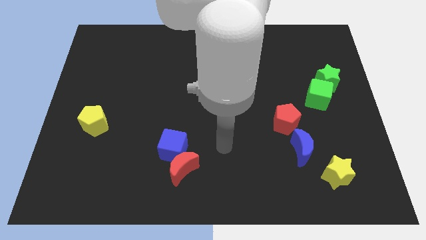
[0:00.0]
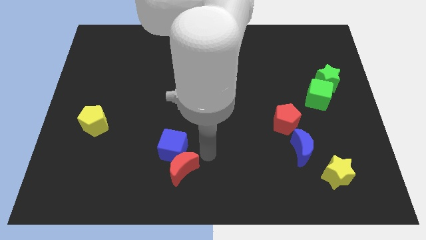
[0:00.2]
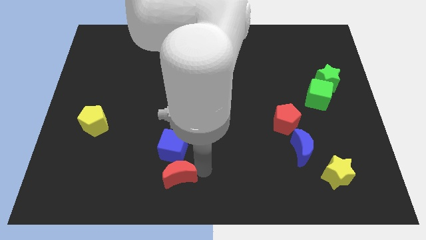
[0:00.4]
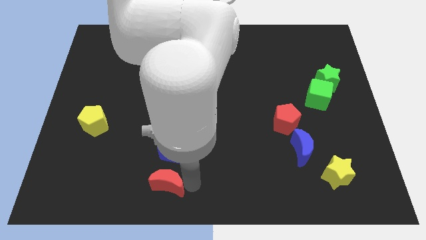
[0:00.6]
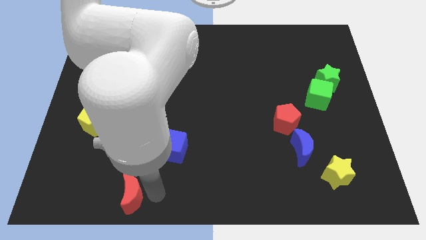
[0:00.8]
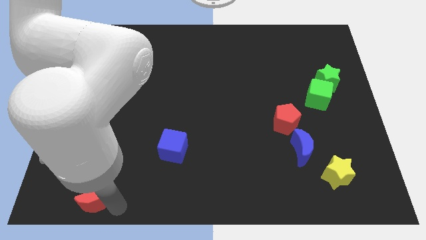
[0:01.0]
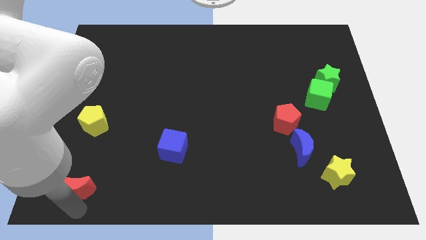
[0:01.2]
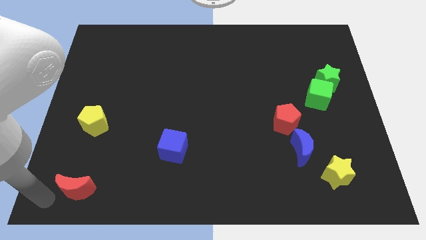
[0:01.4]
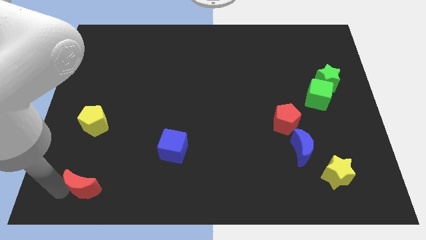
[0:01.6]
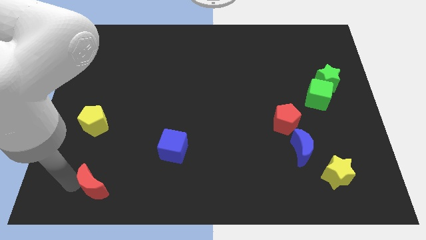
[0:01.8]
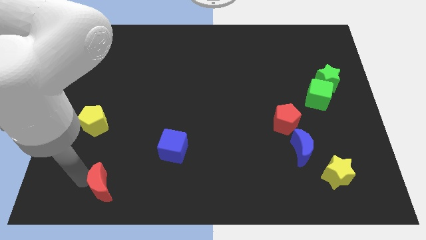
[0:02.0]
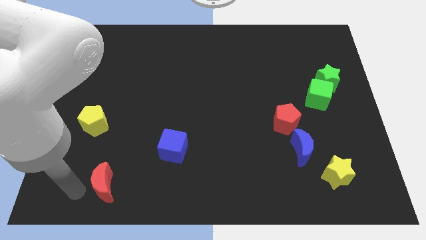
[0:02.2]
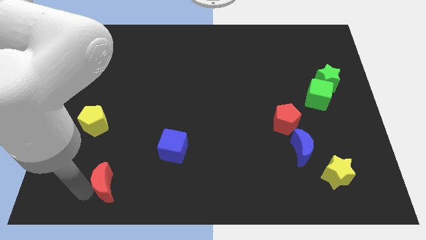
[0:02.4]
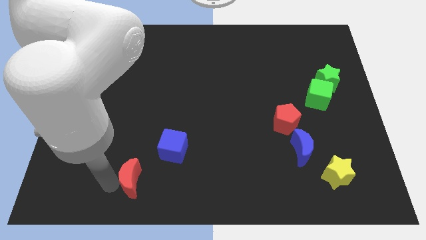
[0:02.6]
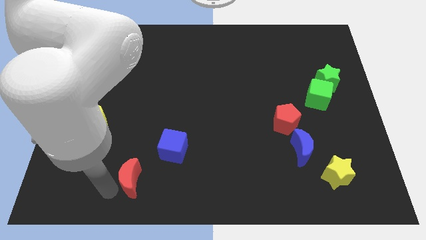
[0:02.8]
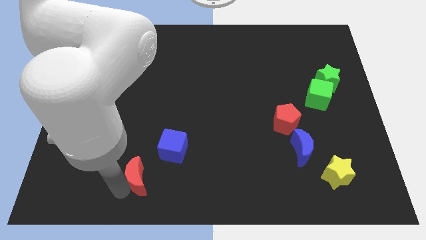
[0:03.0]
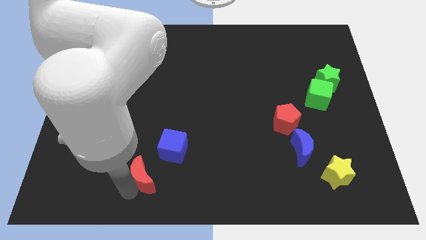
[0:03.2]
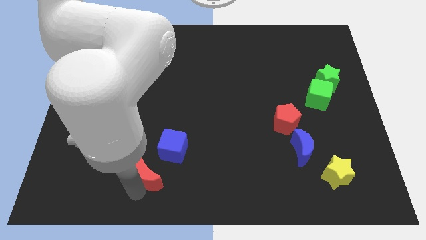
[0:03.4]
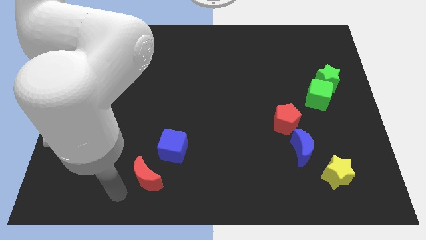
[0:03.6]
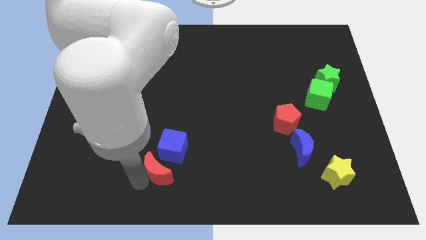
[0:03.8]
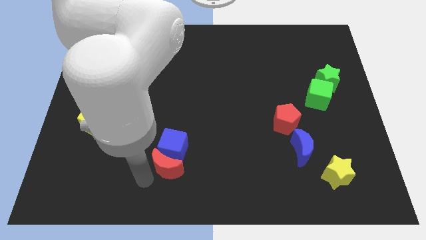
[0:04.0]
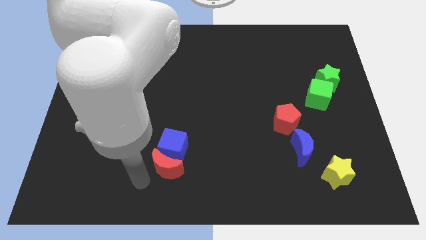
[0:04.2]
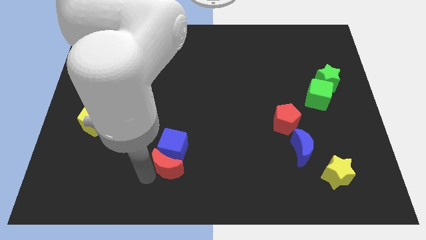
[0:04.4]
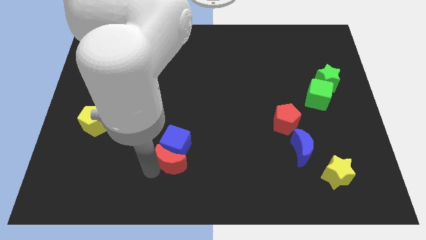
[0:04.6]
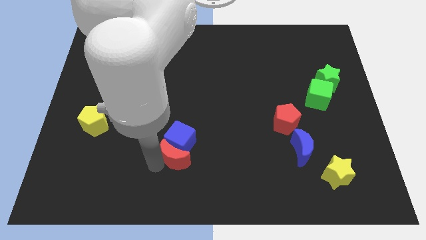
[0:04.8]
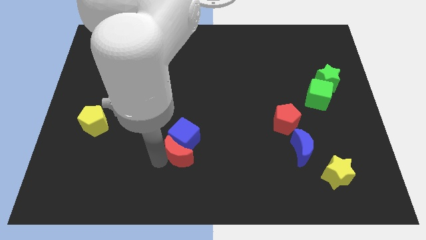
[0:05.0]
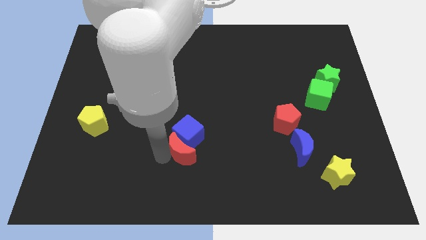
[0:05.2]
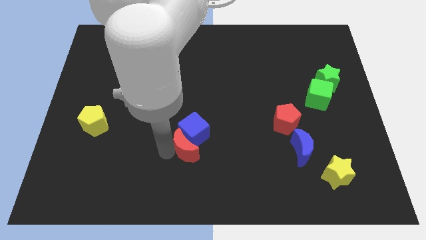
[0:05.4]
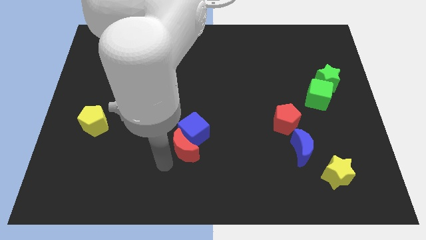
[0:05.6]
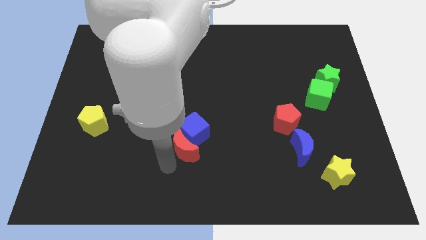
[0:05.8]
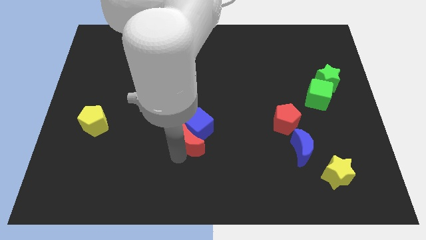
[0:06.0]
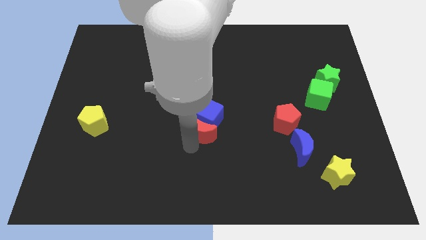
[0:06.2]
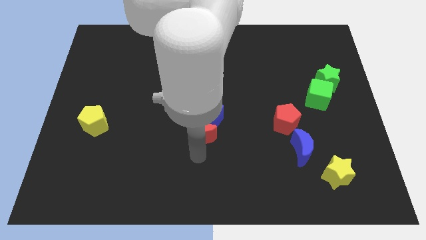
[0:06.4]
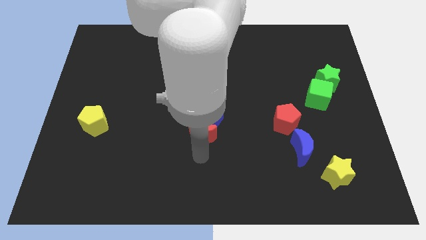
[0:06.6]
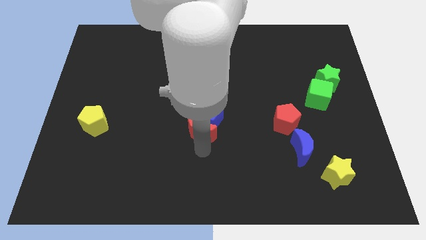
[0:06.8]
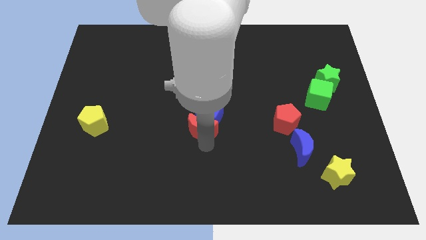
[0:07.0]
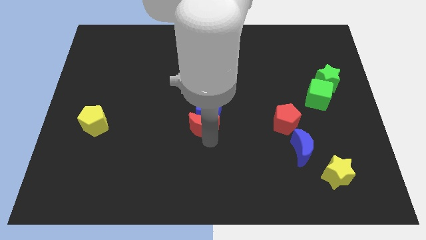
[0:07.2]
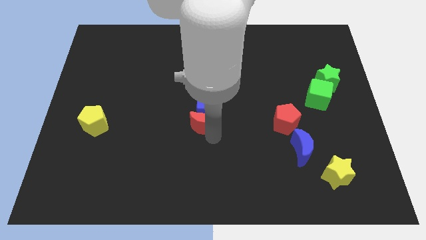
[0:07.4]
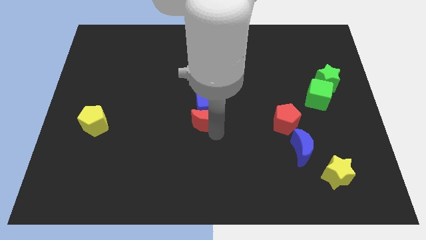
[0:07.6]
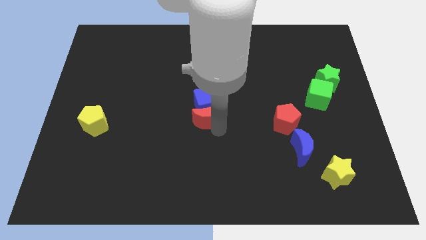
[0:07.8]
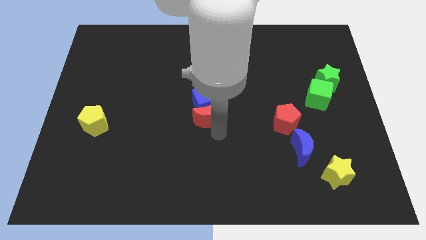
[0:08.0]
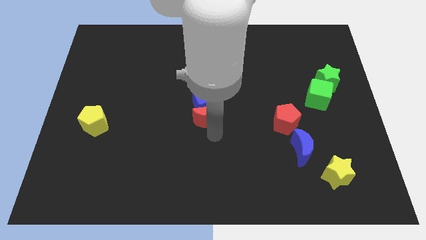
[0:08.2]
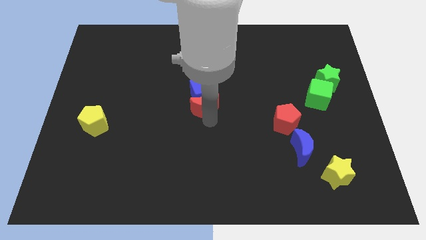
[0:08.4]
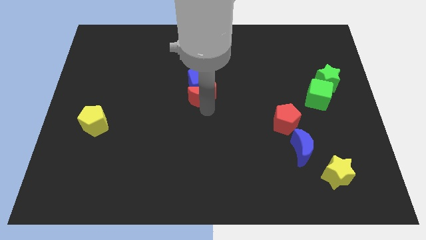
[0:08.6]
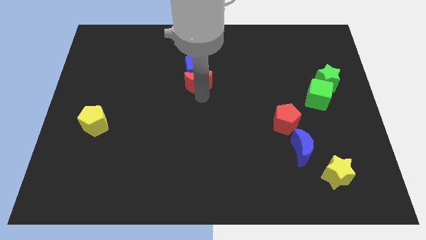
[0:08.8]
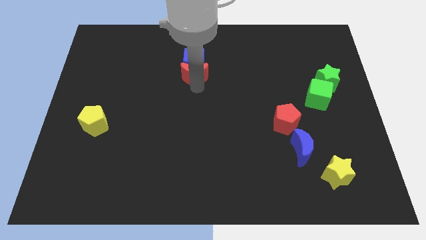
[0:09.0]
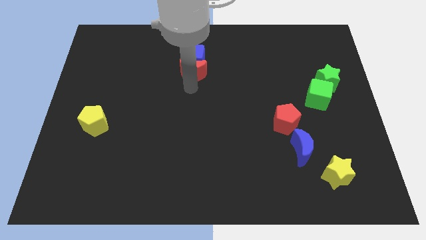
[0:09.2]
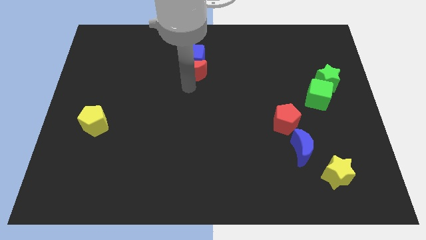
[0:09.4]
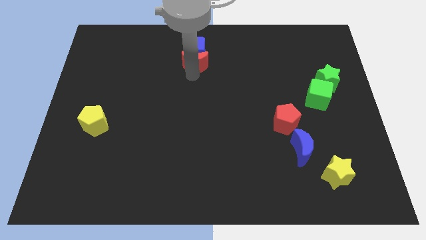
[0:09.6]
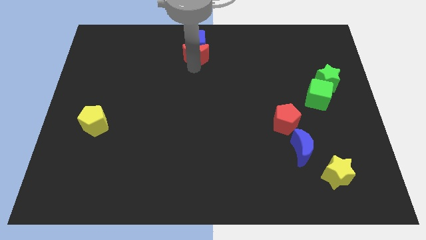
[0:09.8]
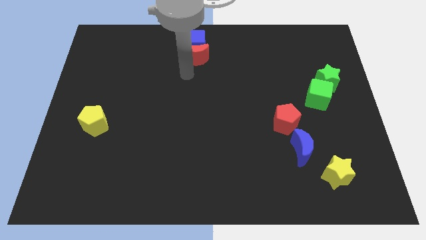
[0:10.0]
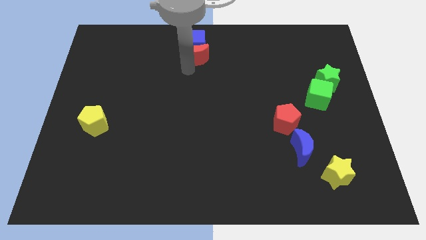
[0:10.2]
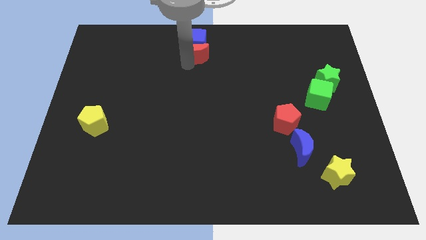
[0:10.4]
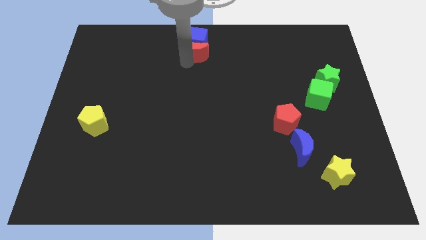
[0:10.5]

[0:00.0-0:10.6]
move the red moon to the top side

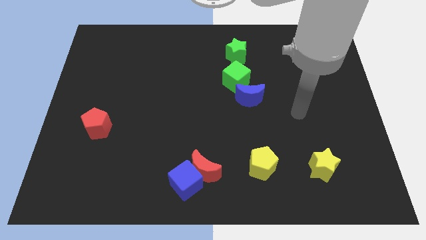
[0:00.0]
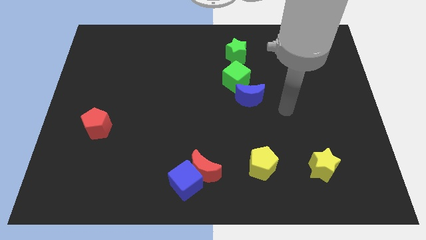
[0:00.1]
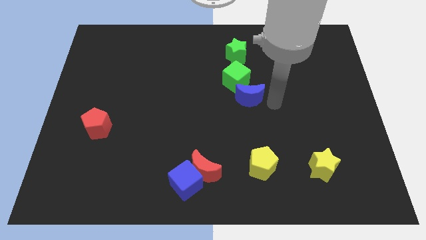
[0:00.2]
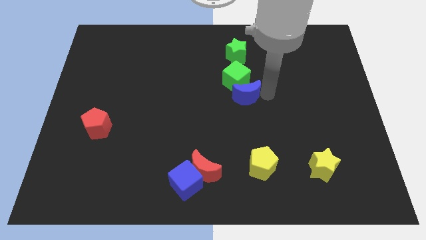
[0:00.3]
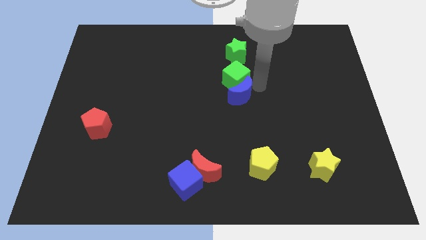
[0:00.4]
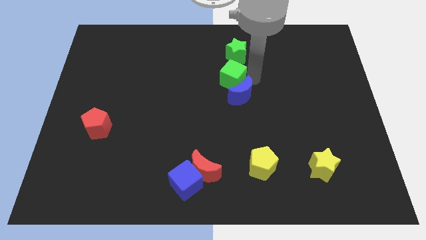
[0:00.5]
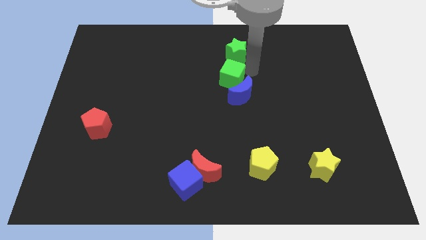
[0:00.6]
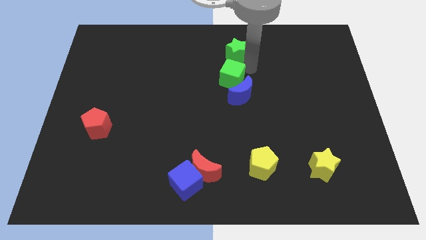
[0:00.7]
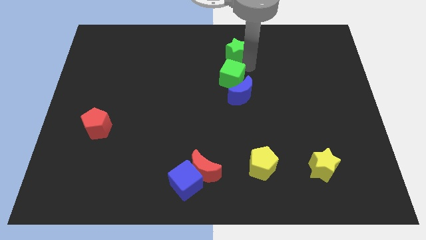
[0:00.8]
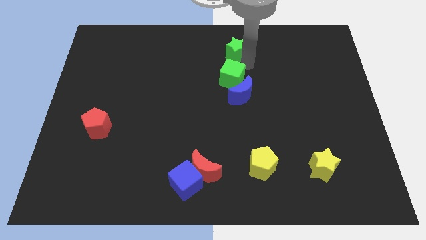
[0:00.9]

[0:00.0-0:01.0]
push the green star to the top
